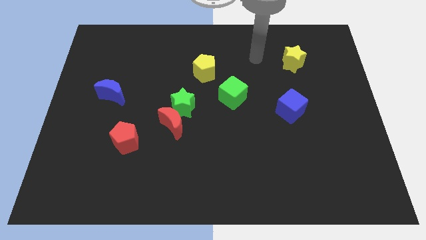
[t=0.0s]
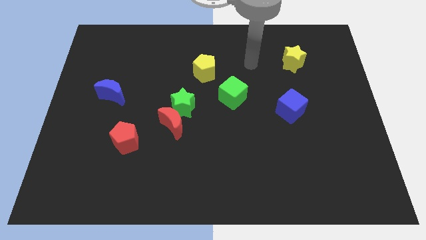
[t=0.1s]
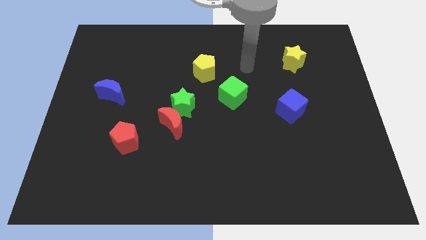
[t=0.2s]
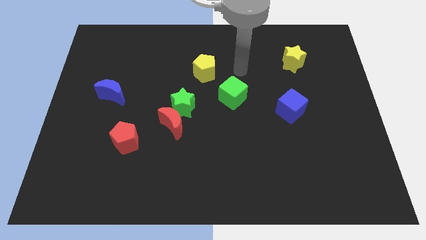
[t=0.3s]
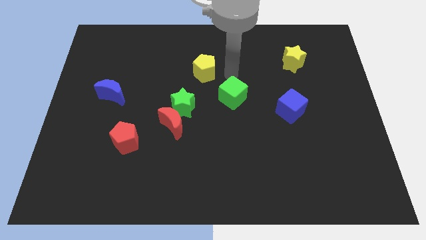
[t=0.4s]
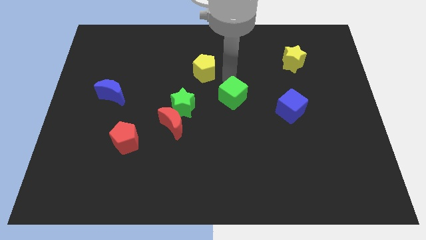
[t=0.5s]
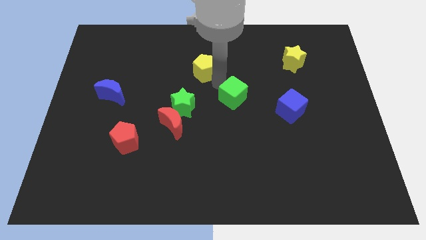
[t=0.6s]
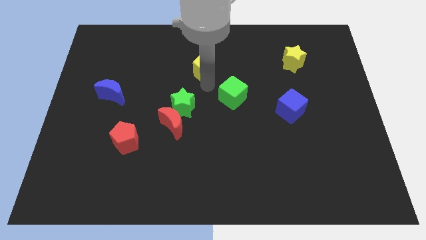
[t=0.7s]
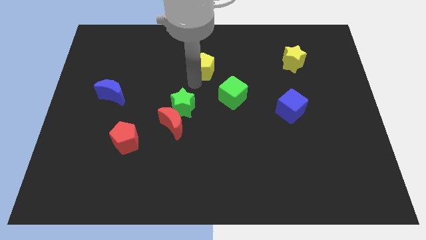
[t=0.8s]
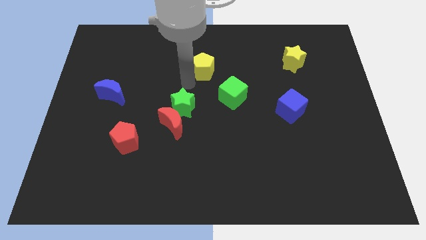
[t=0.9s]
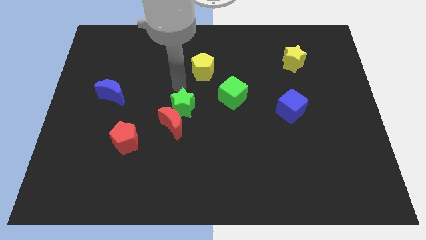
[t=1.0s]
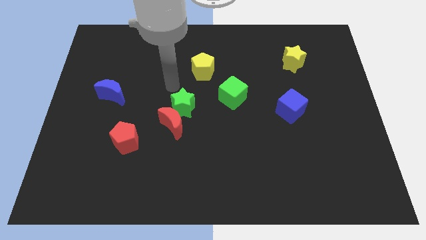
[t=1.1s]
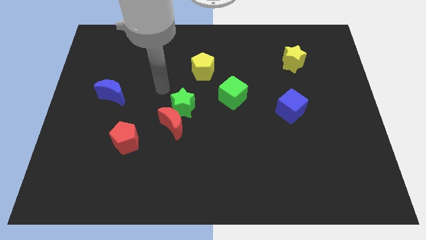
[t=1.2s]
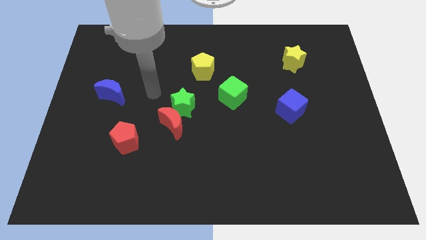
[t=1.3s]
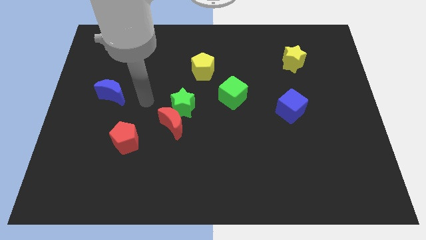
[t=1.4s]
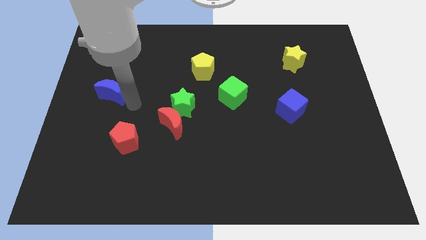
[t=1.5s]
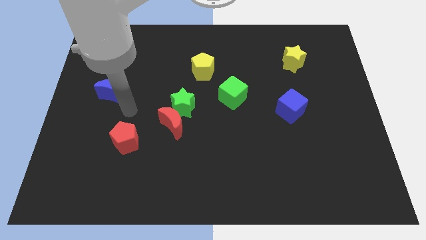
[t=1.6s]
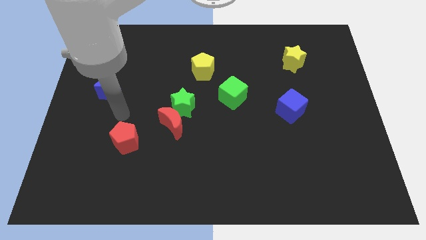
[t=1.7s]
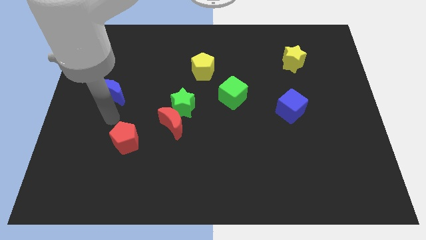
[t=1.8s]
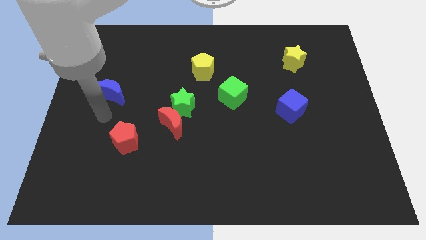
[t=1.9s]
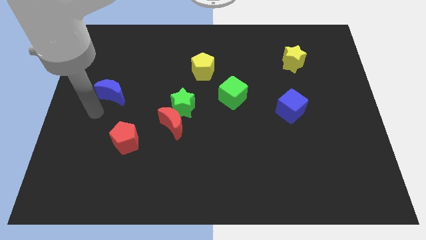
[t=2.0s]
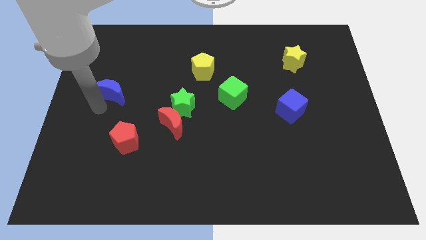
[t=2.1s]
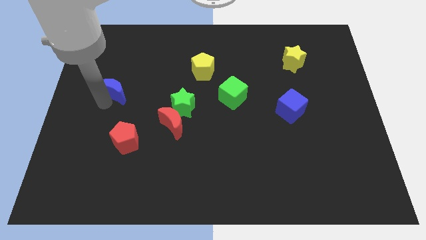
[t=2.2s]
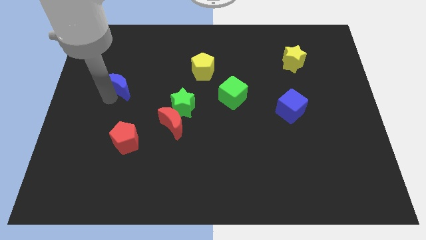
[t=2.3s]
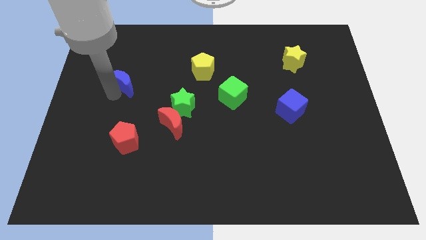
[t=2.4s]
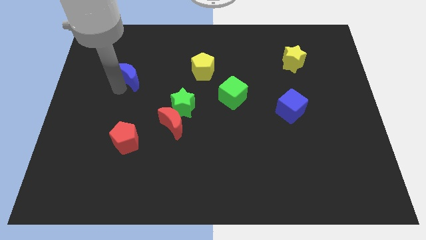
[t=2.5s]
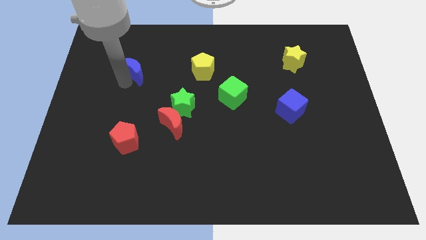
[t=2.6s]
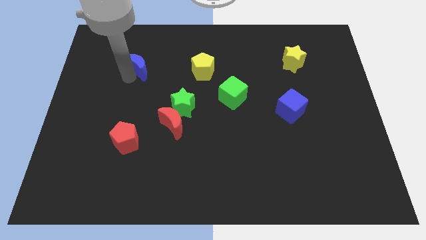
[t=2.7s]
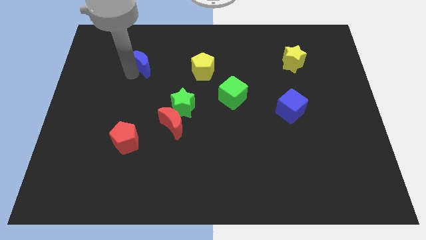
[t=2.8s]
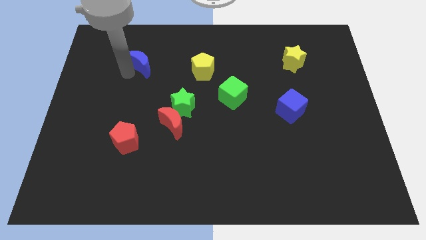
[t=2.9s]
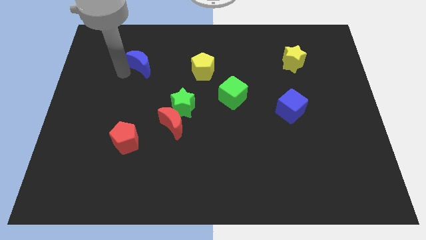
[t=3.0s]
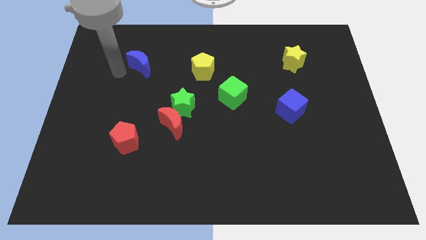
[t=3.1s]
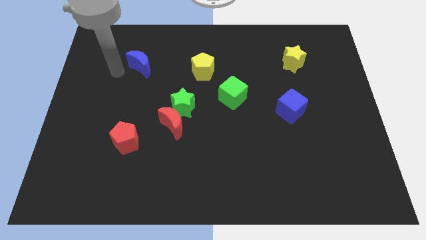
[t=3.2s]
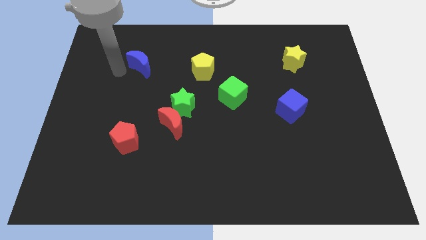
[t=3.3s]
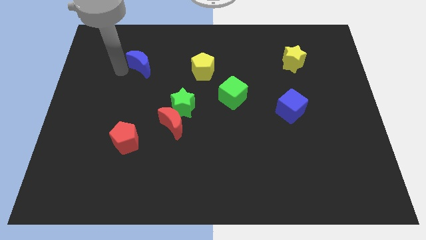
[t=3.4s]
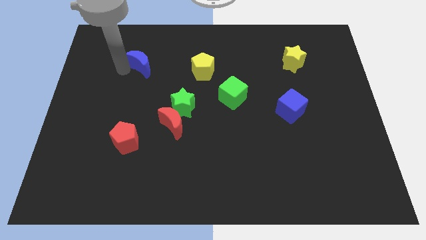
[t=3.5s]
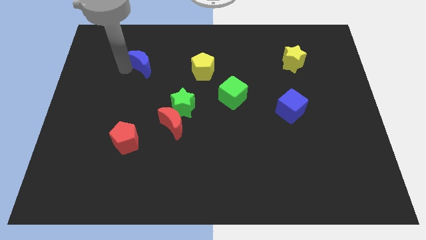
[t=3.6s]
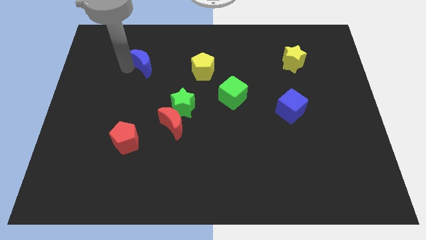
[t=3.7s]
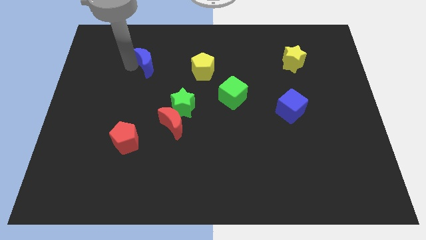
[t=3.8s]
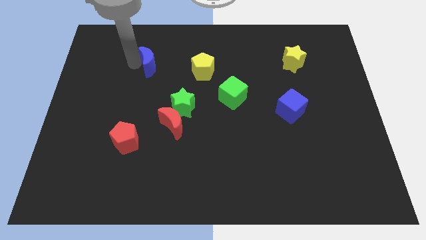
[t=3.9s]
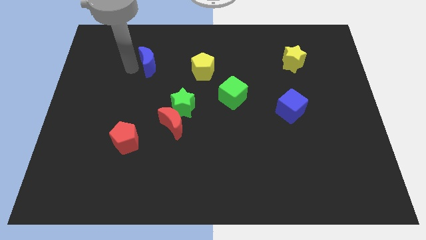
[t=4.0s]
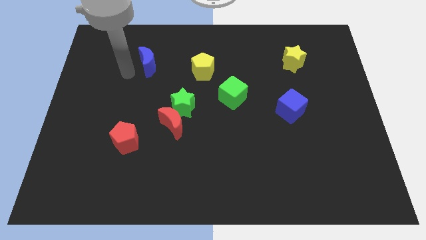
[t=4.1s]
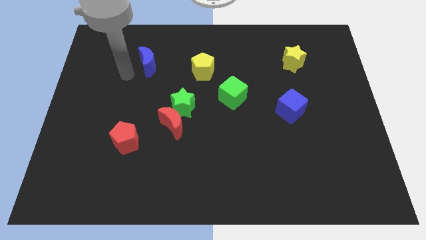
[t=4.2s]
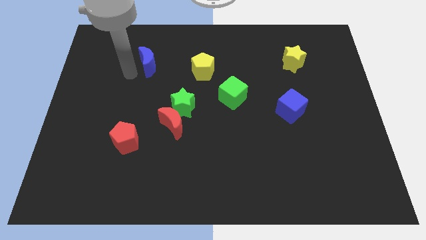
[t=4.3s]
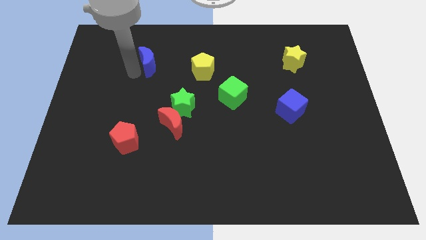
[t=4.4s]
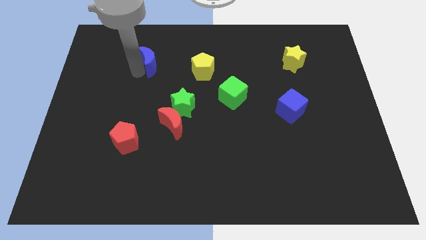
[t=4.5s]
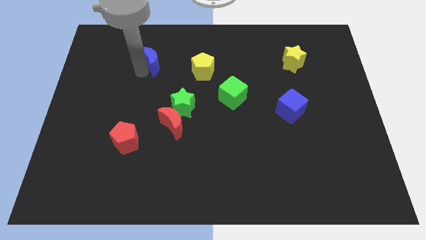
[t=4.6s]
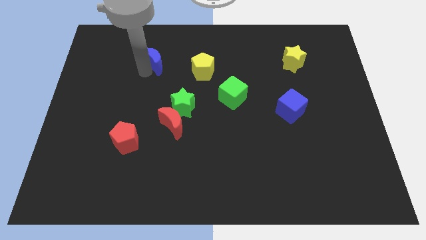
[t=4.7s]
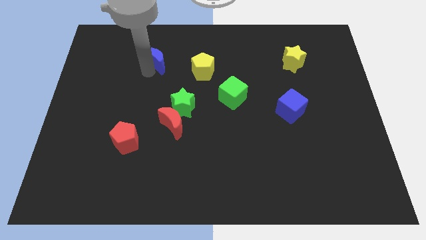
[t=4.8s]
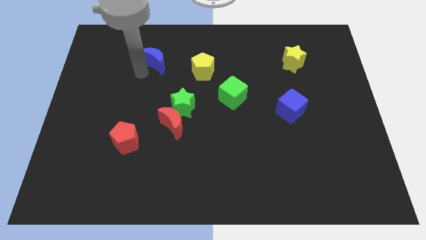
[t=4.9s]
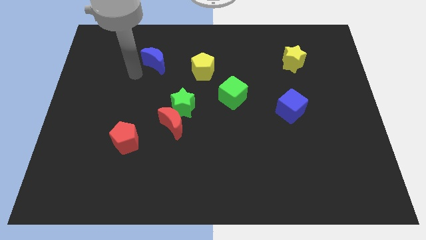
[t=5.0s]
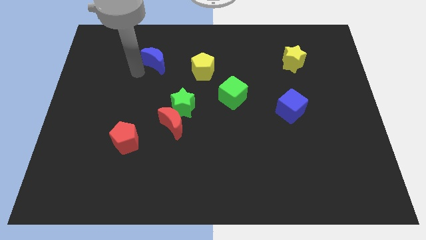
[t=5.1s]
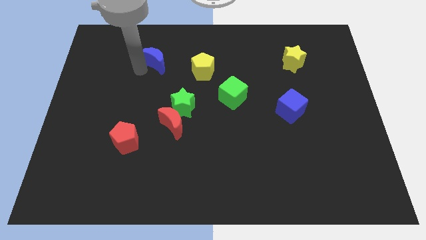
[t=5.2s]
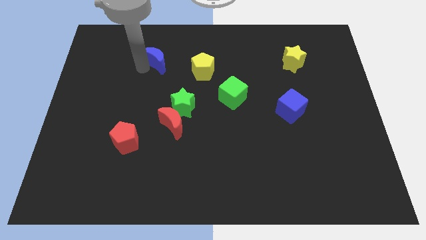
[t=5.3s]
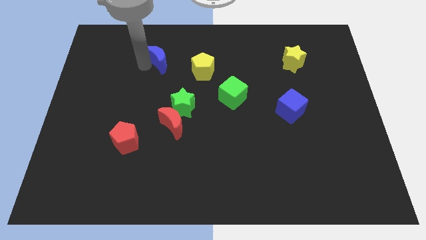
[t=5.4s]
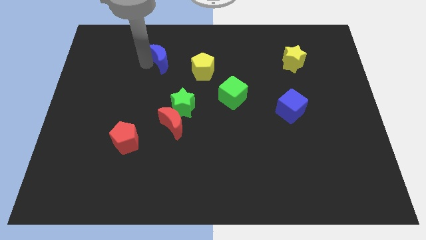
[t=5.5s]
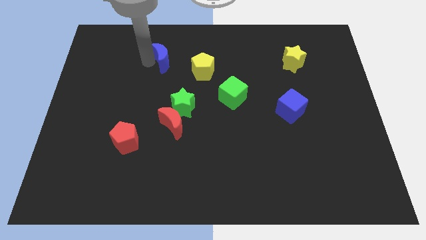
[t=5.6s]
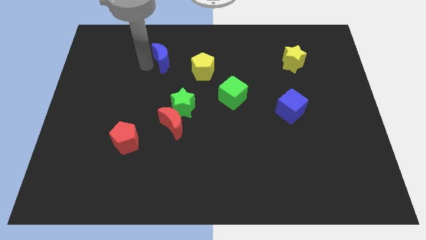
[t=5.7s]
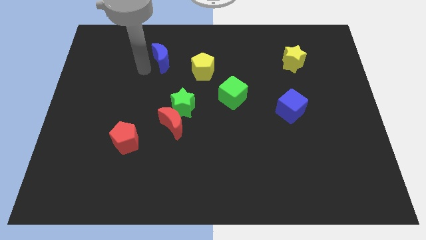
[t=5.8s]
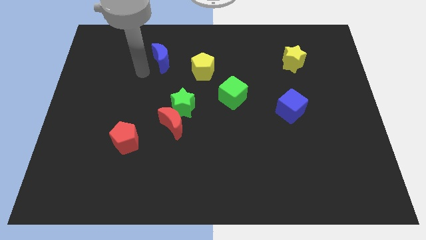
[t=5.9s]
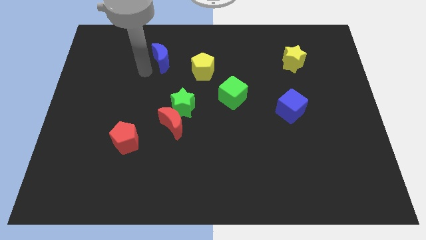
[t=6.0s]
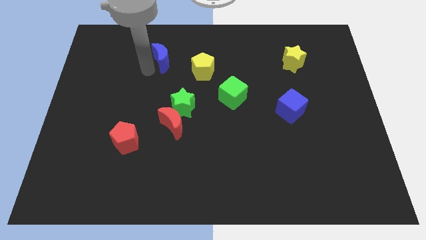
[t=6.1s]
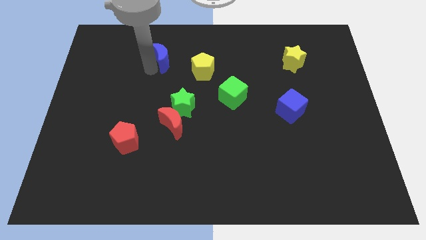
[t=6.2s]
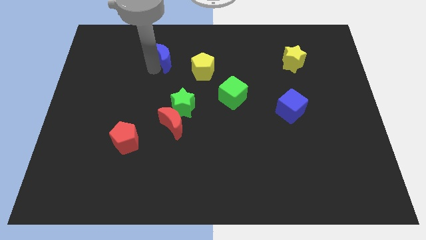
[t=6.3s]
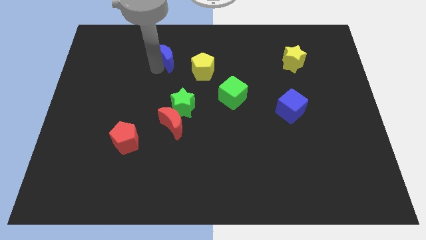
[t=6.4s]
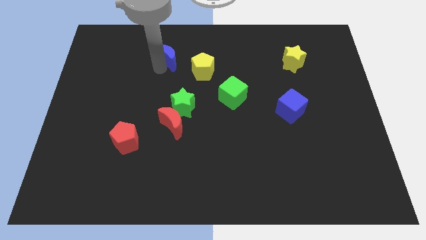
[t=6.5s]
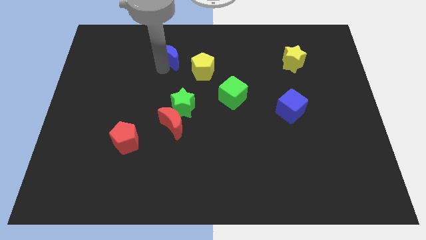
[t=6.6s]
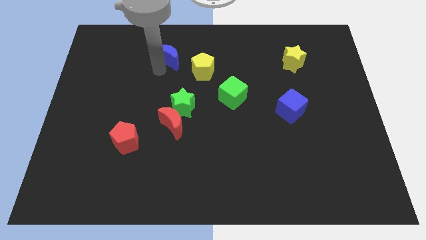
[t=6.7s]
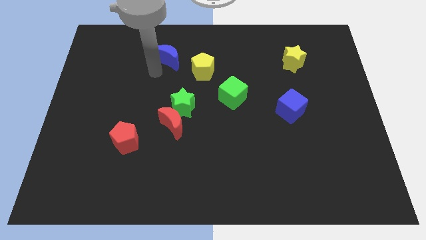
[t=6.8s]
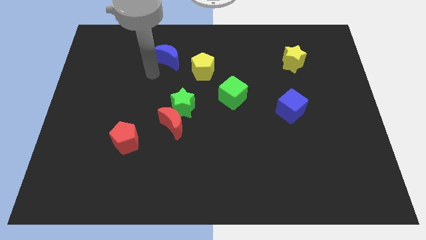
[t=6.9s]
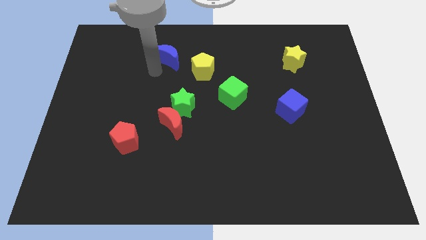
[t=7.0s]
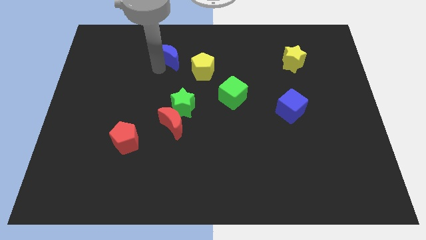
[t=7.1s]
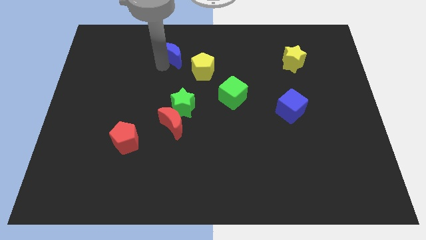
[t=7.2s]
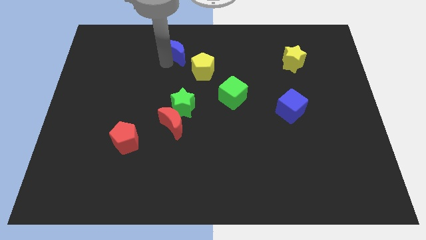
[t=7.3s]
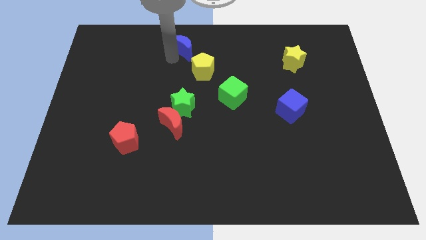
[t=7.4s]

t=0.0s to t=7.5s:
put the blue moon to the top
